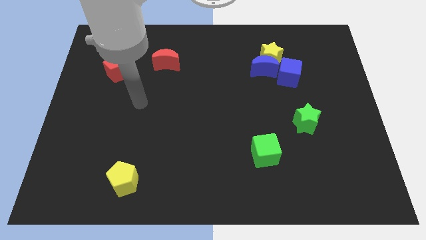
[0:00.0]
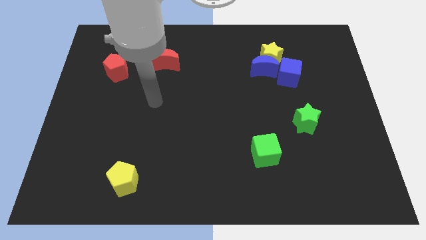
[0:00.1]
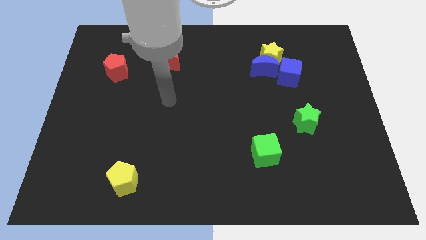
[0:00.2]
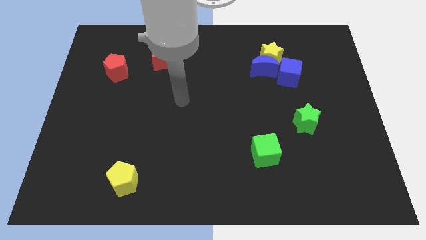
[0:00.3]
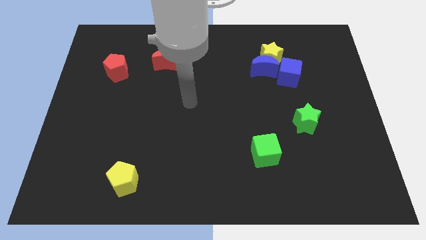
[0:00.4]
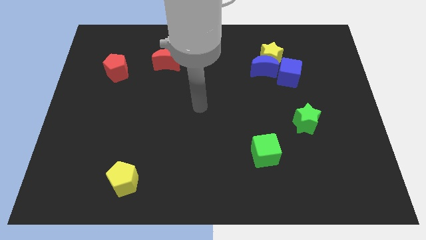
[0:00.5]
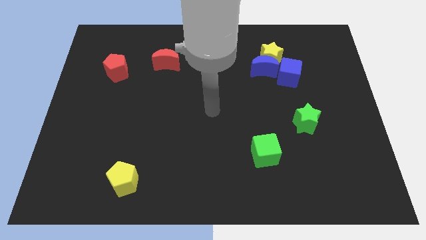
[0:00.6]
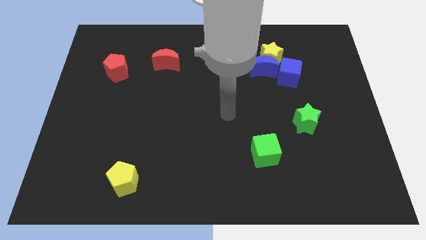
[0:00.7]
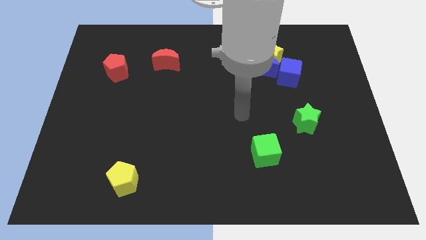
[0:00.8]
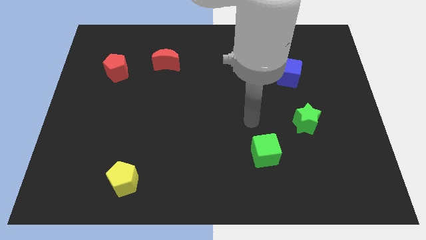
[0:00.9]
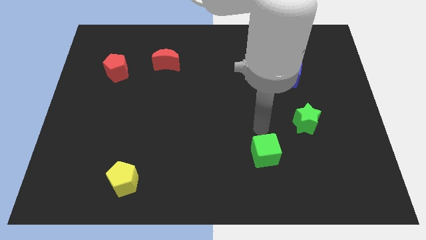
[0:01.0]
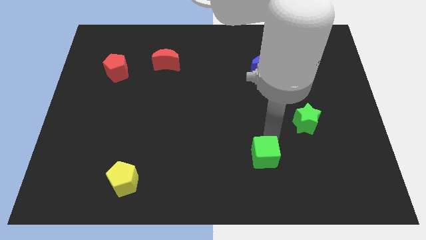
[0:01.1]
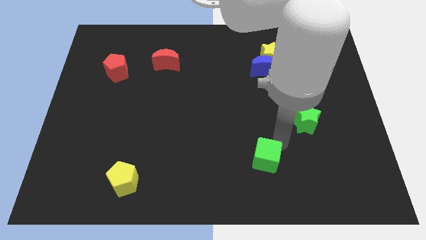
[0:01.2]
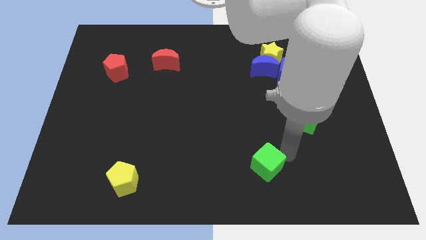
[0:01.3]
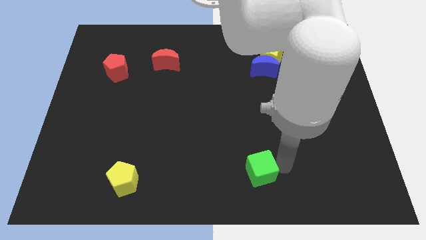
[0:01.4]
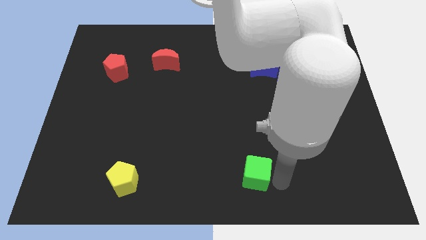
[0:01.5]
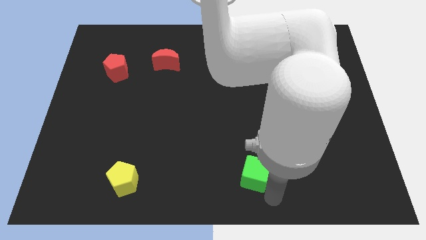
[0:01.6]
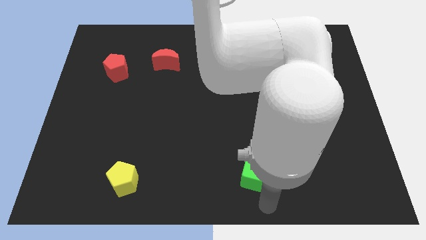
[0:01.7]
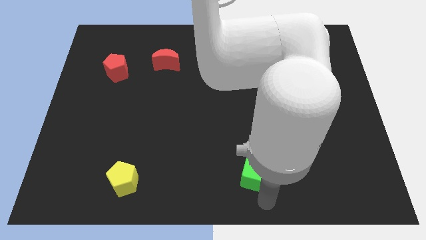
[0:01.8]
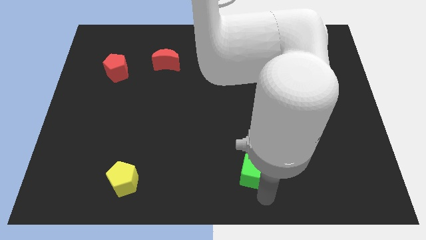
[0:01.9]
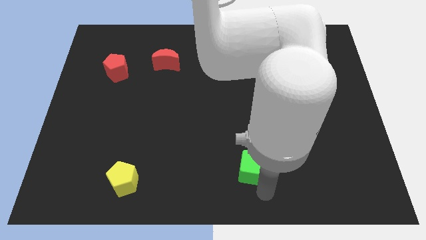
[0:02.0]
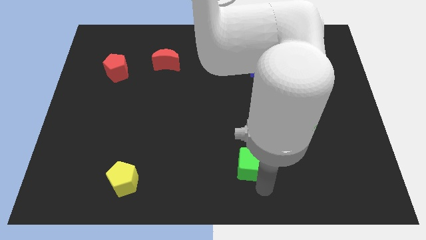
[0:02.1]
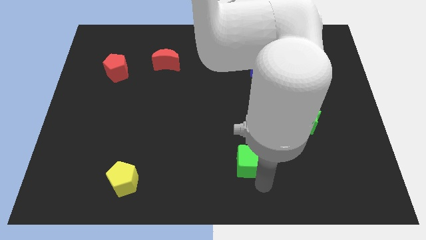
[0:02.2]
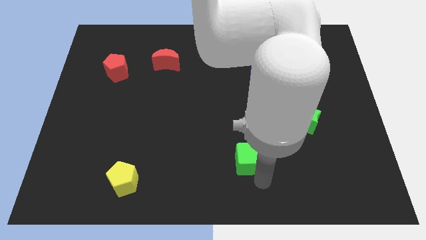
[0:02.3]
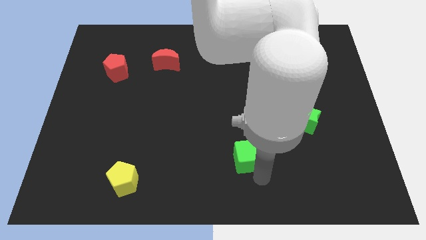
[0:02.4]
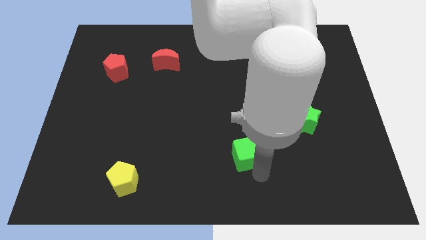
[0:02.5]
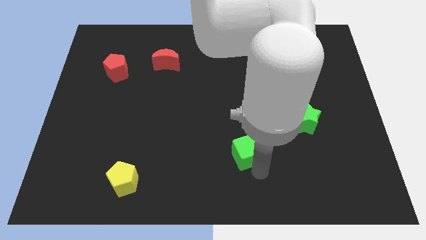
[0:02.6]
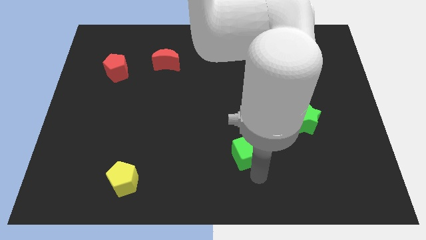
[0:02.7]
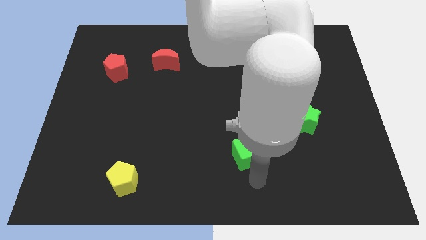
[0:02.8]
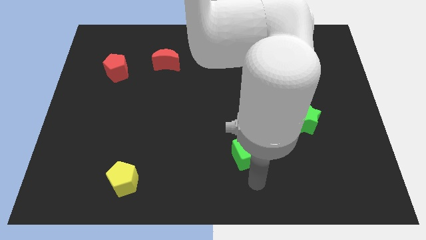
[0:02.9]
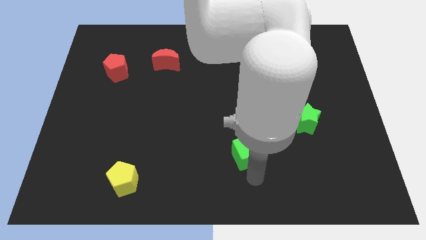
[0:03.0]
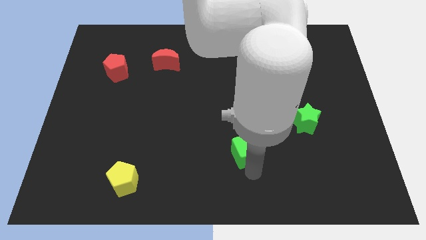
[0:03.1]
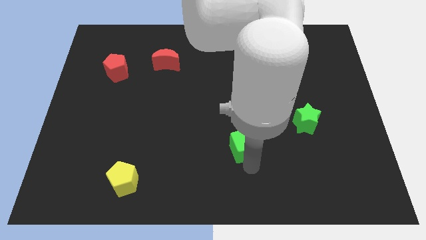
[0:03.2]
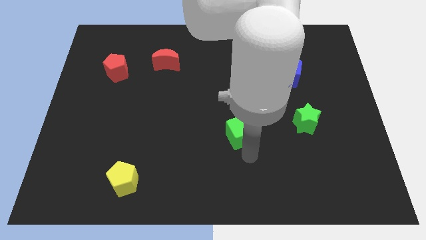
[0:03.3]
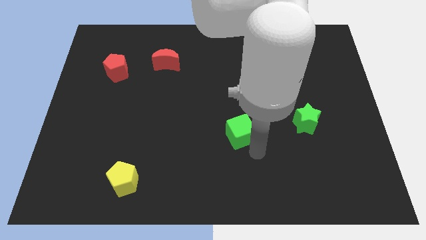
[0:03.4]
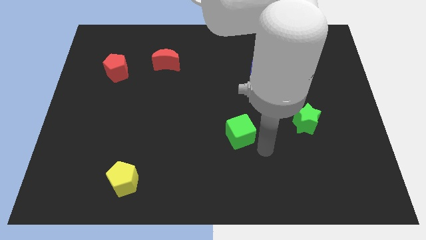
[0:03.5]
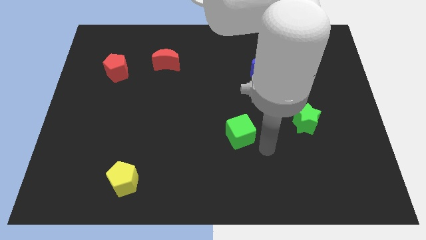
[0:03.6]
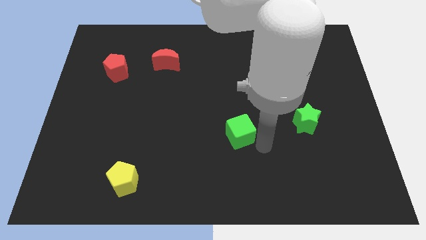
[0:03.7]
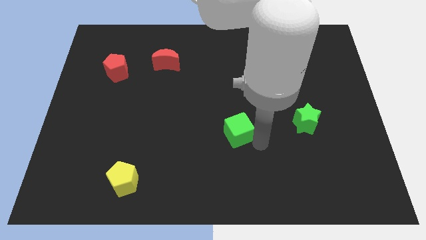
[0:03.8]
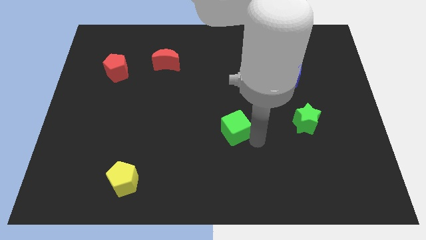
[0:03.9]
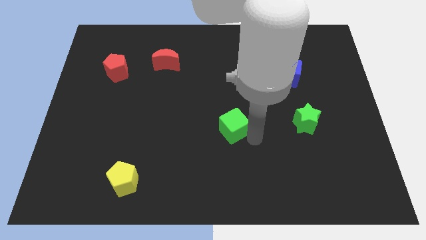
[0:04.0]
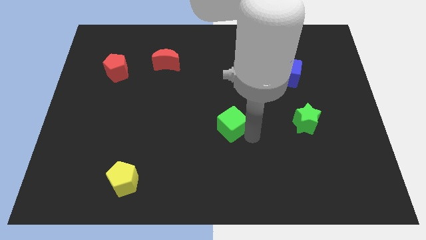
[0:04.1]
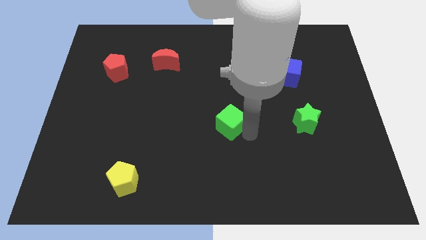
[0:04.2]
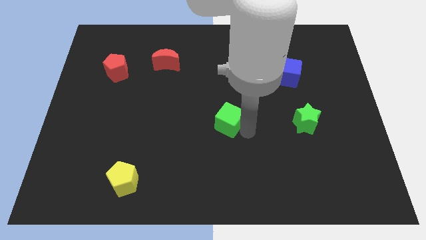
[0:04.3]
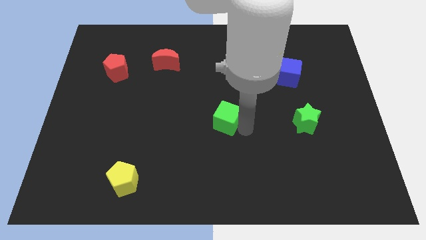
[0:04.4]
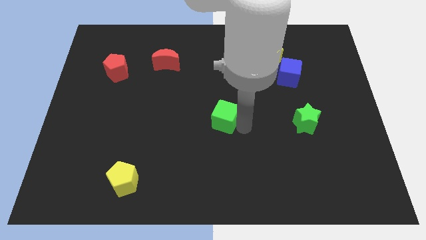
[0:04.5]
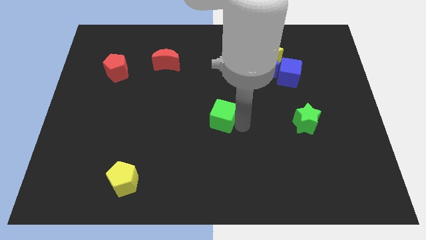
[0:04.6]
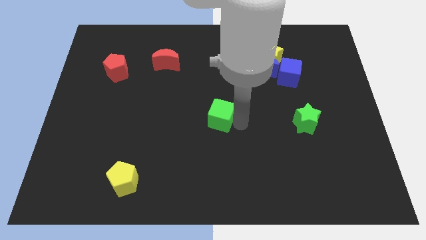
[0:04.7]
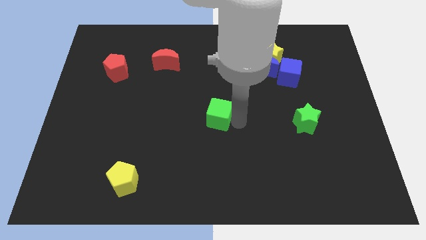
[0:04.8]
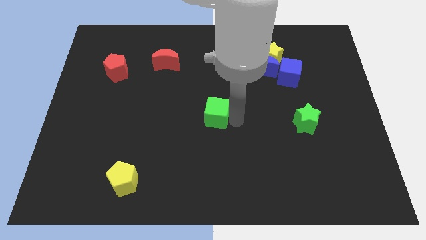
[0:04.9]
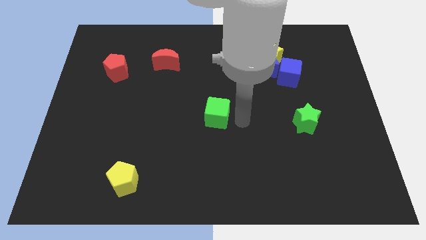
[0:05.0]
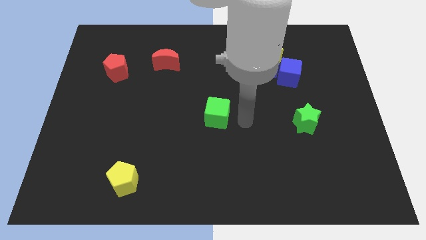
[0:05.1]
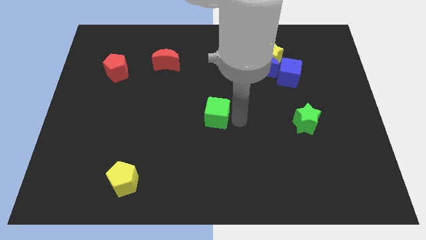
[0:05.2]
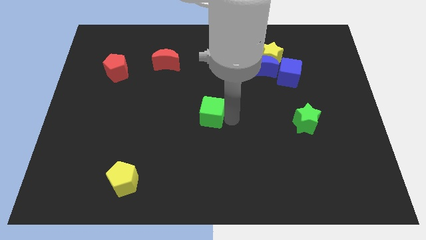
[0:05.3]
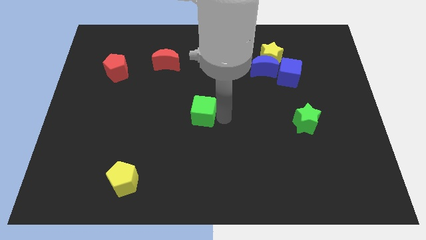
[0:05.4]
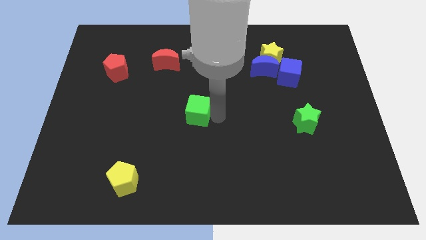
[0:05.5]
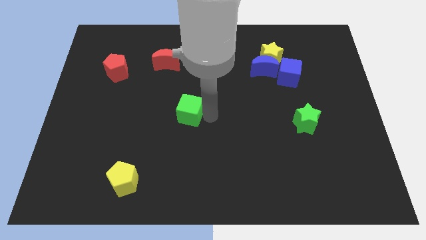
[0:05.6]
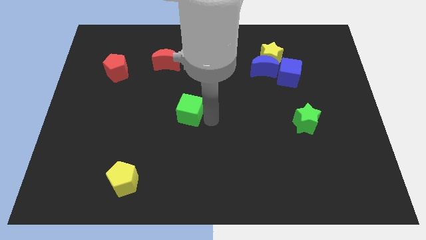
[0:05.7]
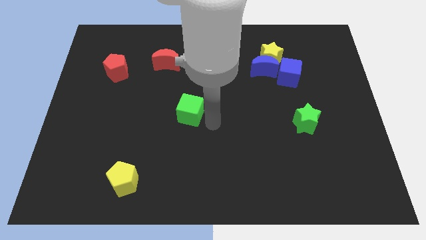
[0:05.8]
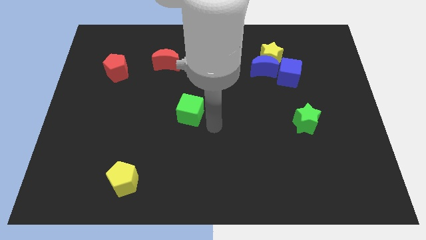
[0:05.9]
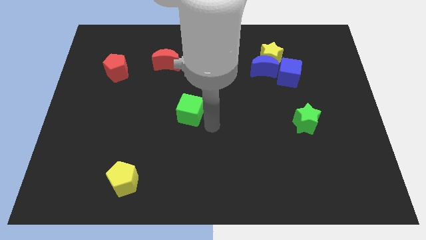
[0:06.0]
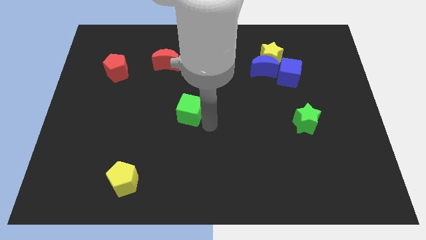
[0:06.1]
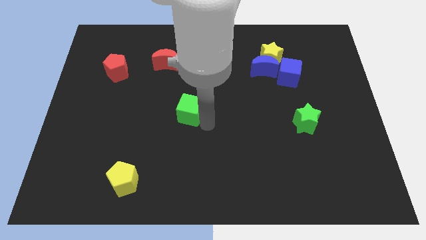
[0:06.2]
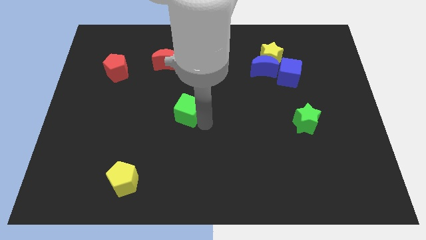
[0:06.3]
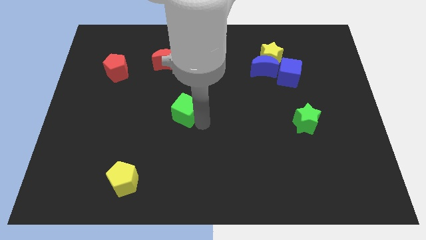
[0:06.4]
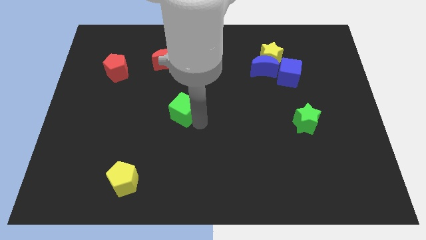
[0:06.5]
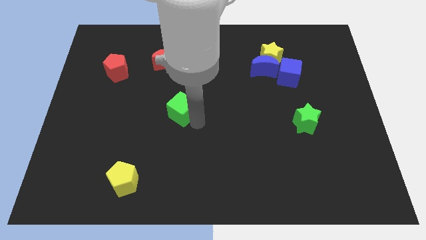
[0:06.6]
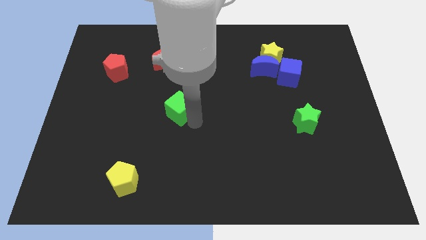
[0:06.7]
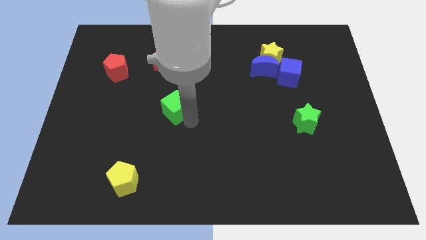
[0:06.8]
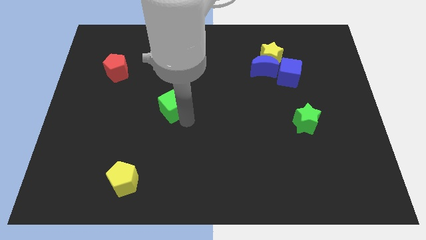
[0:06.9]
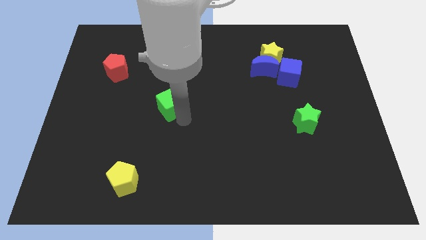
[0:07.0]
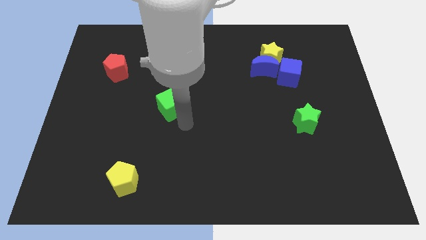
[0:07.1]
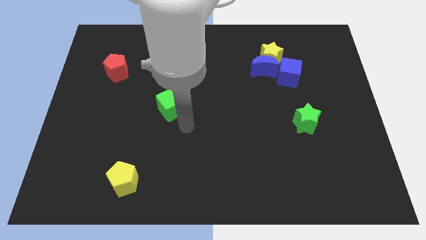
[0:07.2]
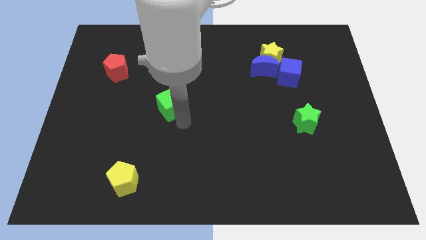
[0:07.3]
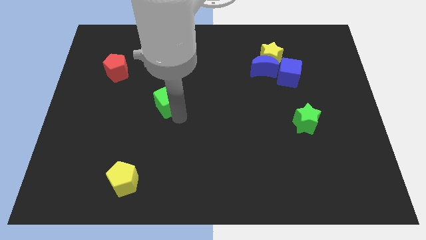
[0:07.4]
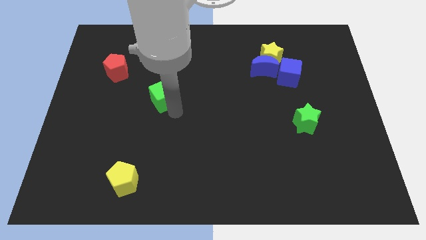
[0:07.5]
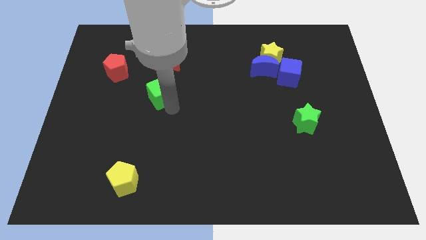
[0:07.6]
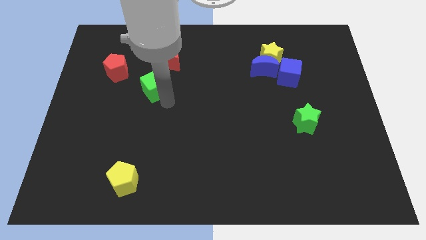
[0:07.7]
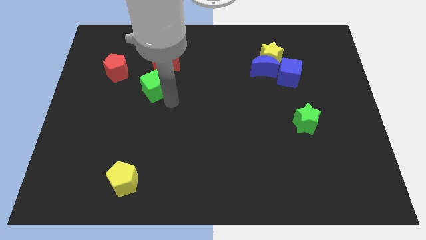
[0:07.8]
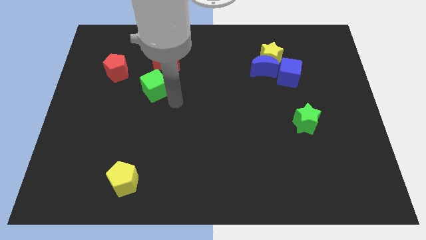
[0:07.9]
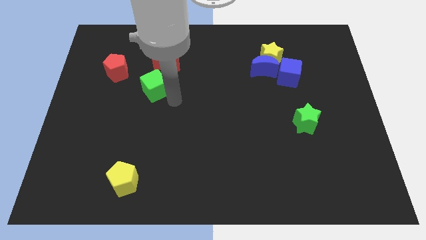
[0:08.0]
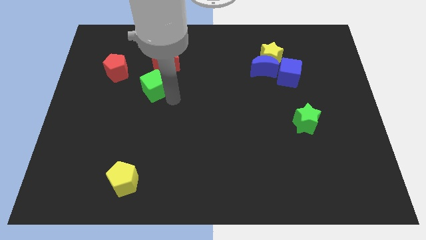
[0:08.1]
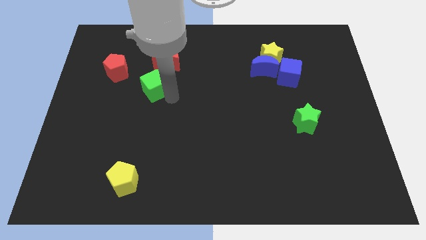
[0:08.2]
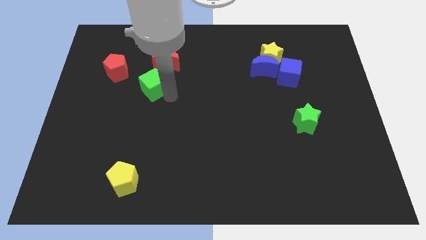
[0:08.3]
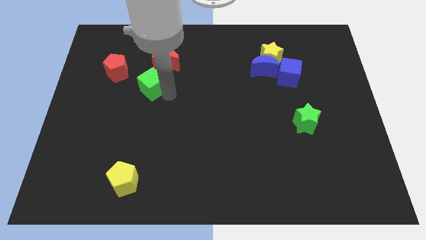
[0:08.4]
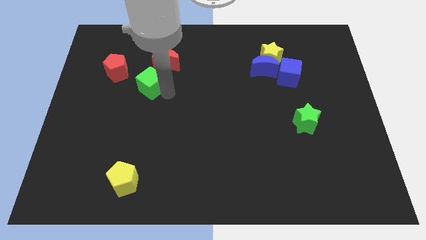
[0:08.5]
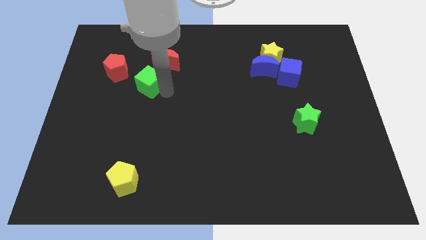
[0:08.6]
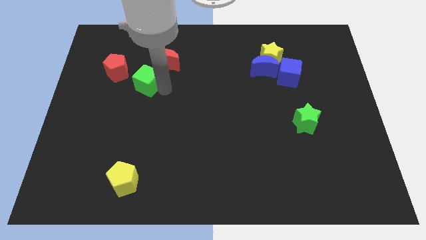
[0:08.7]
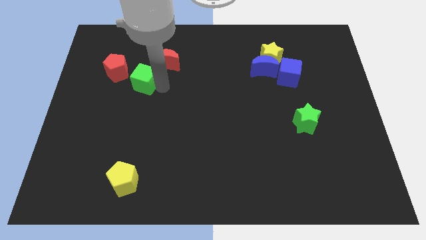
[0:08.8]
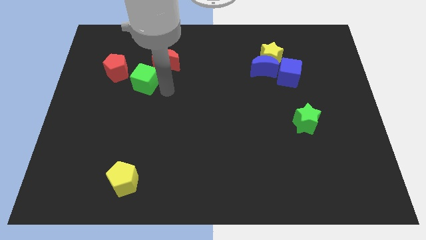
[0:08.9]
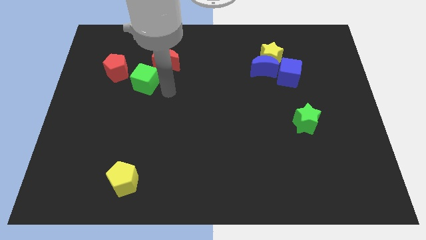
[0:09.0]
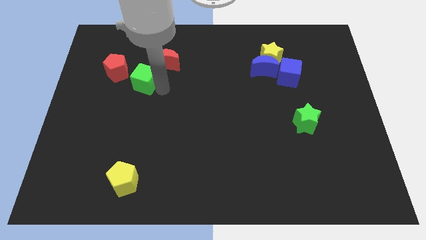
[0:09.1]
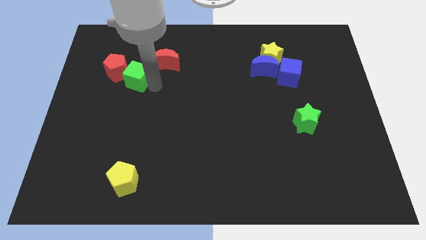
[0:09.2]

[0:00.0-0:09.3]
push the green cube next to the red pentagon
